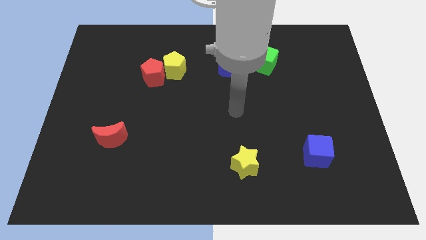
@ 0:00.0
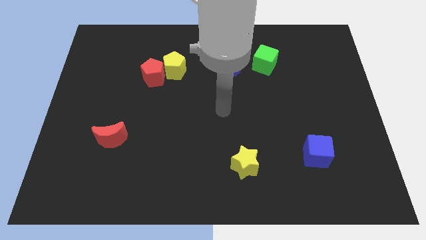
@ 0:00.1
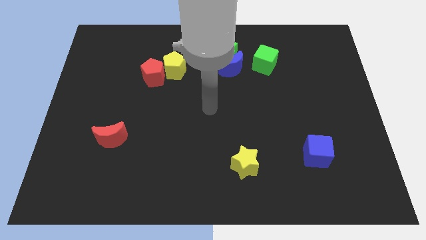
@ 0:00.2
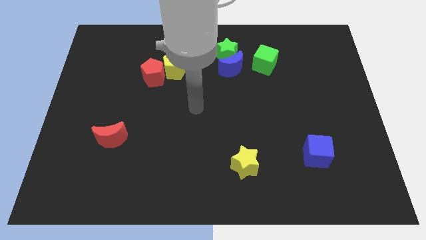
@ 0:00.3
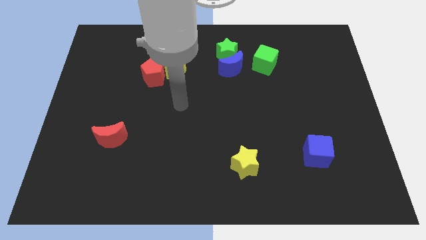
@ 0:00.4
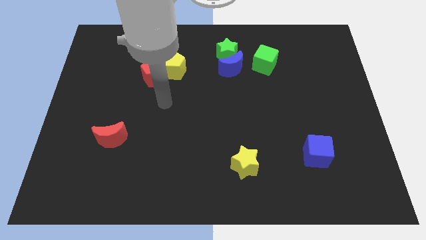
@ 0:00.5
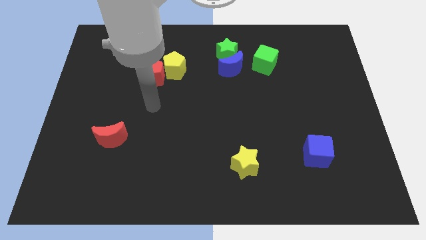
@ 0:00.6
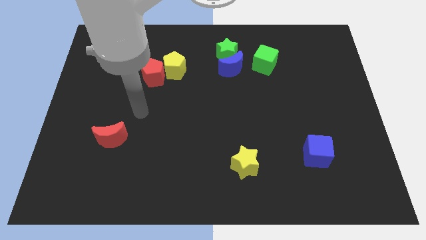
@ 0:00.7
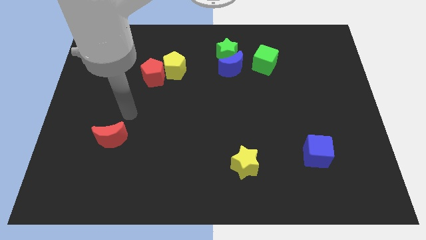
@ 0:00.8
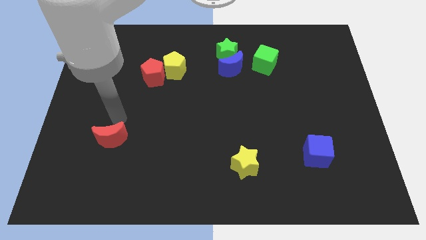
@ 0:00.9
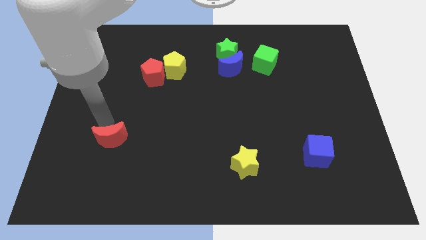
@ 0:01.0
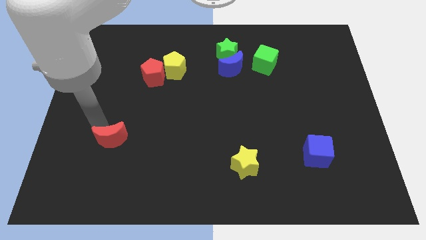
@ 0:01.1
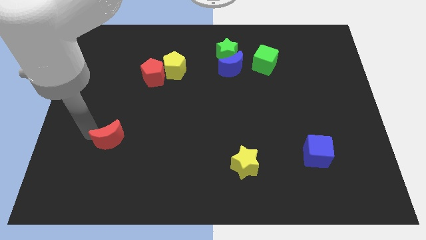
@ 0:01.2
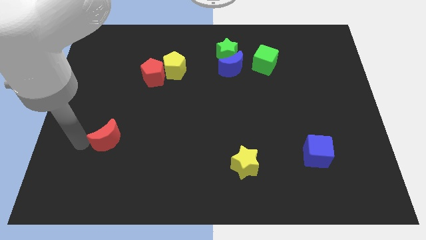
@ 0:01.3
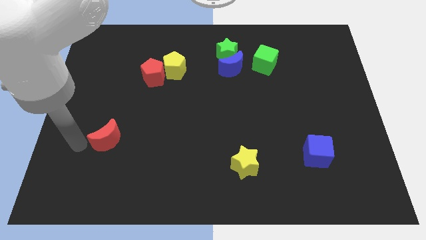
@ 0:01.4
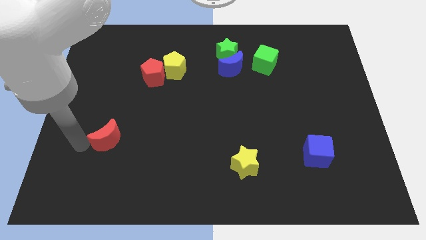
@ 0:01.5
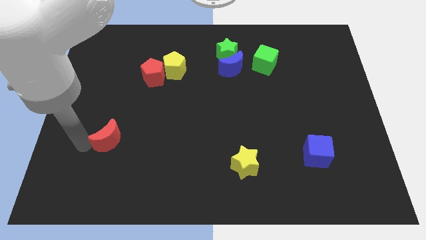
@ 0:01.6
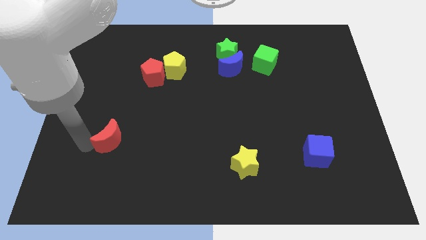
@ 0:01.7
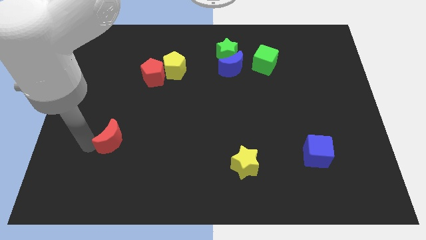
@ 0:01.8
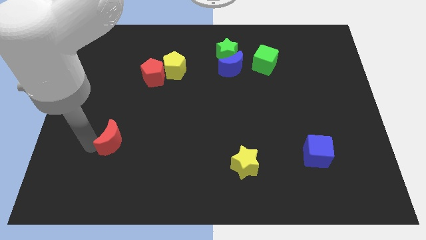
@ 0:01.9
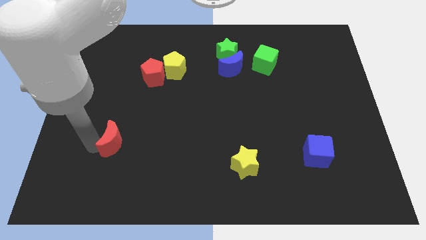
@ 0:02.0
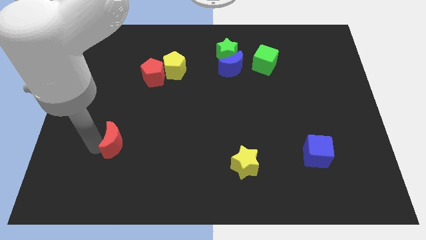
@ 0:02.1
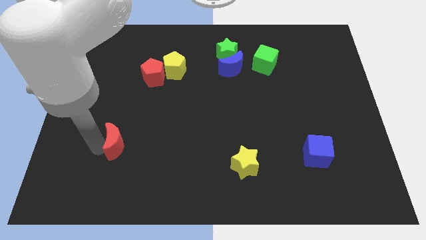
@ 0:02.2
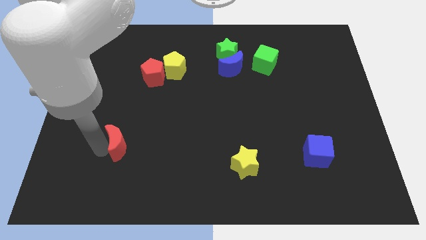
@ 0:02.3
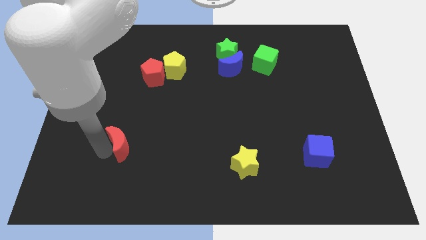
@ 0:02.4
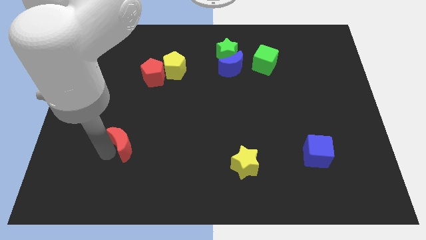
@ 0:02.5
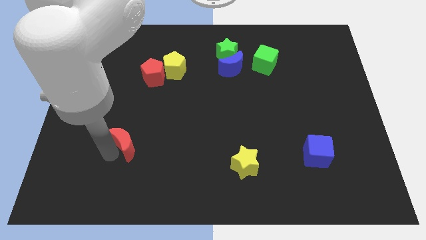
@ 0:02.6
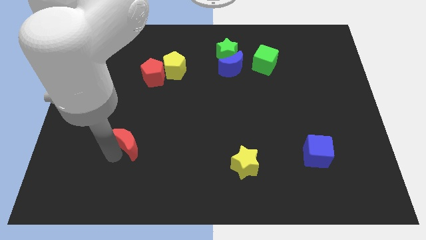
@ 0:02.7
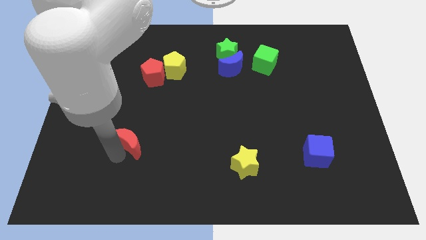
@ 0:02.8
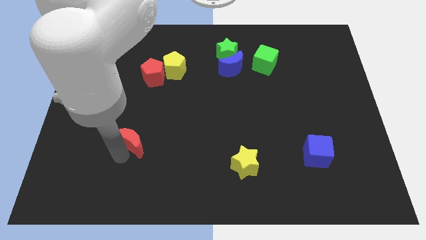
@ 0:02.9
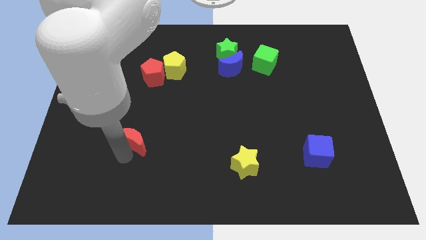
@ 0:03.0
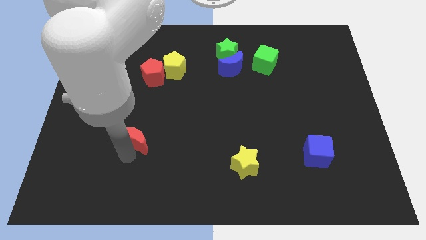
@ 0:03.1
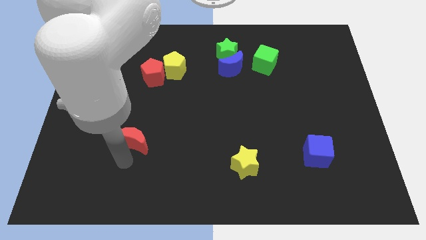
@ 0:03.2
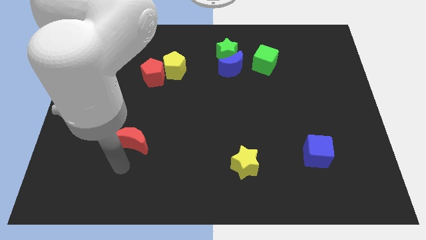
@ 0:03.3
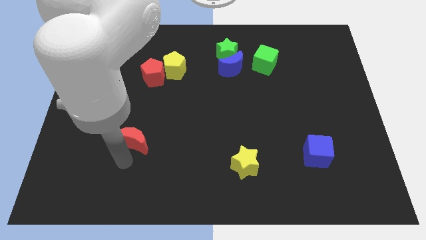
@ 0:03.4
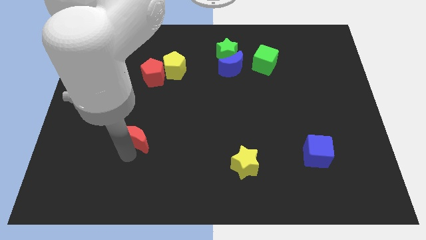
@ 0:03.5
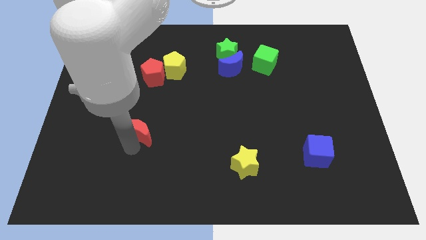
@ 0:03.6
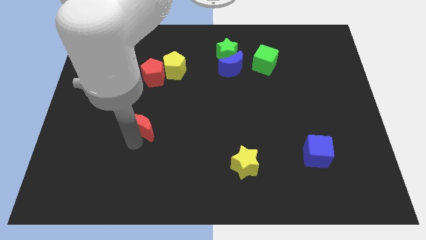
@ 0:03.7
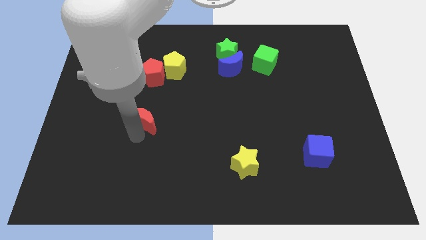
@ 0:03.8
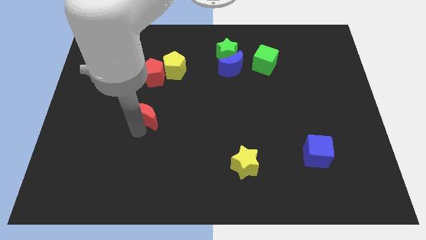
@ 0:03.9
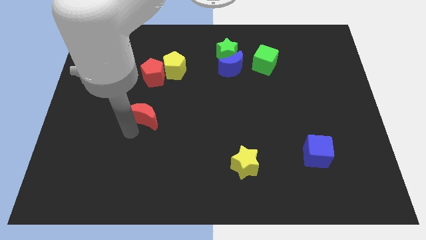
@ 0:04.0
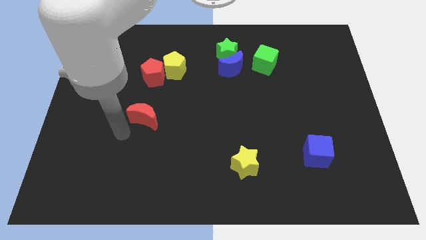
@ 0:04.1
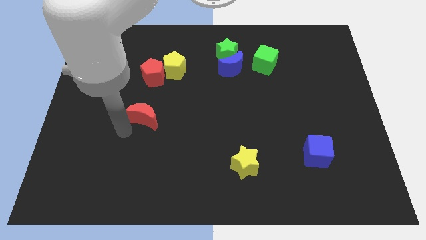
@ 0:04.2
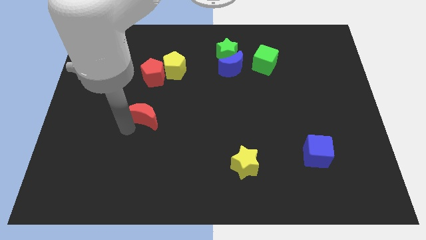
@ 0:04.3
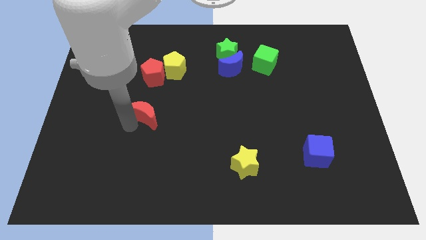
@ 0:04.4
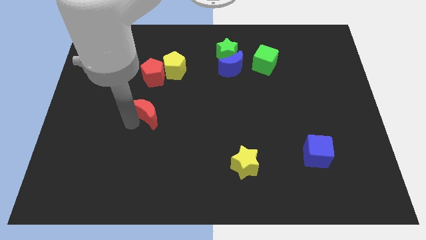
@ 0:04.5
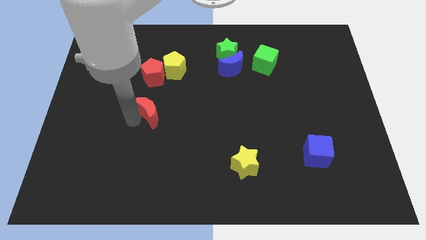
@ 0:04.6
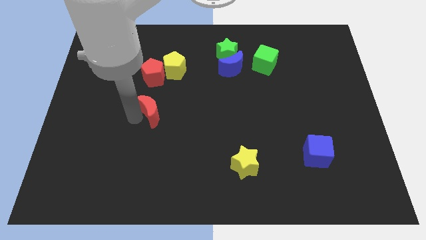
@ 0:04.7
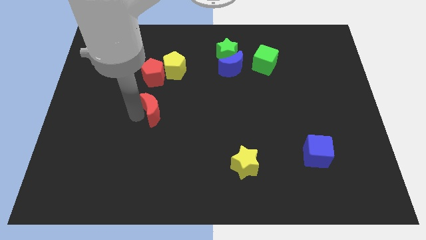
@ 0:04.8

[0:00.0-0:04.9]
push the red moon to the bottom of the yellow pentagon

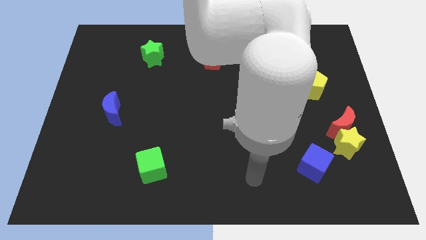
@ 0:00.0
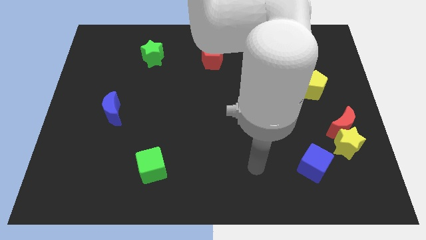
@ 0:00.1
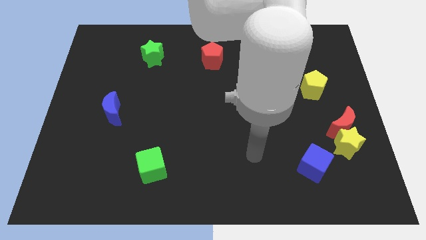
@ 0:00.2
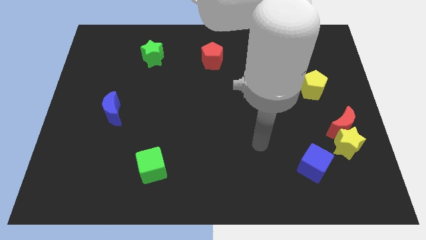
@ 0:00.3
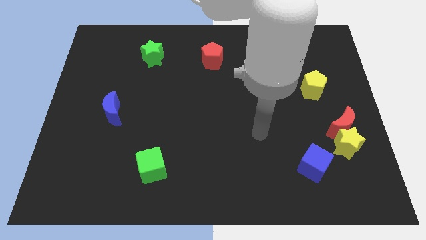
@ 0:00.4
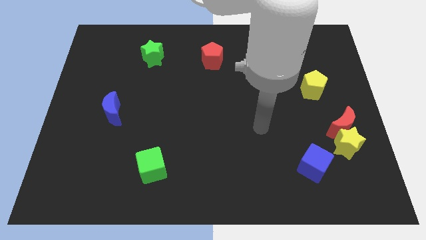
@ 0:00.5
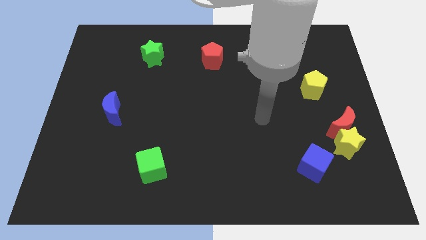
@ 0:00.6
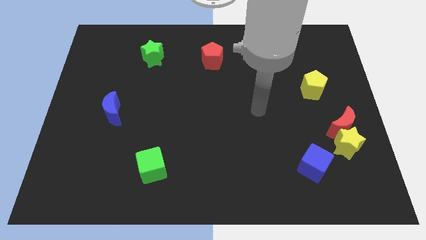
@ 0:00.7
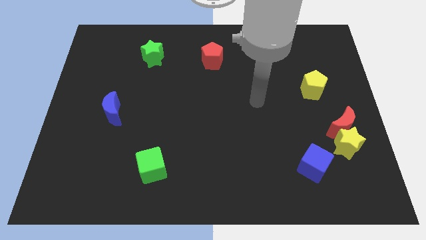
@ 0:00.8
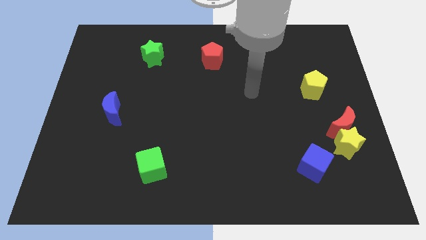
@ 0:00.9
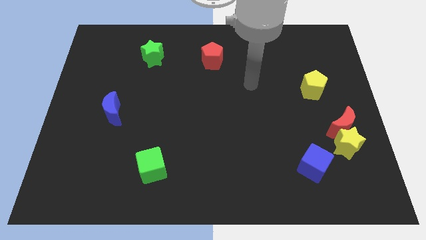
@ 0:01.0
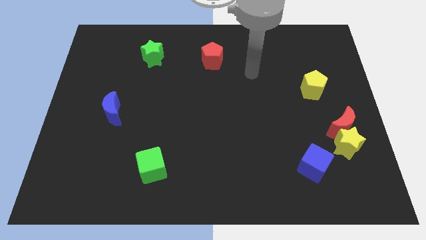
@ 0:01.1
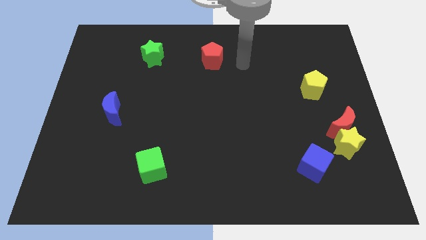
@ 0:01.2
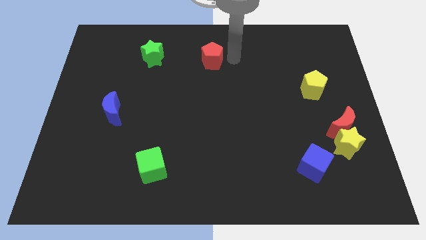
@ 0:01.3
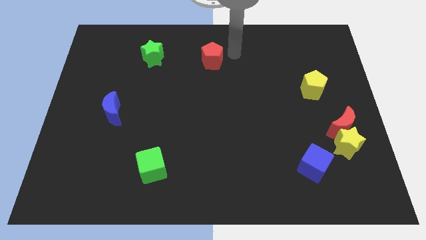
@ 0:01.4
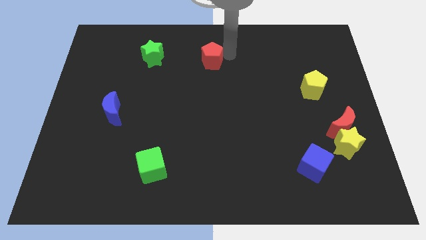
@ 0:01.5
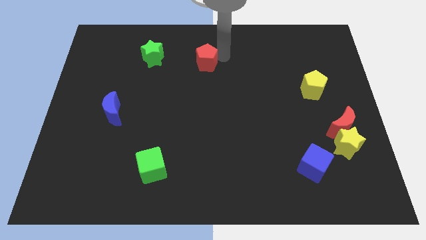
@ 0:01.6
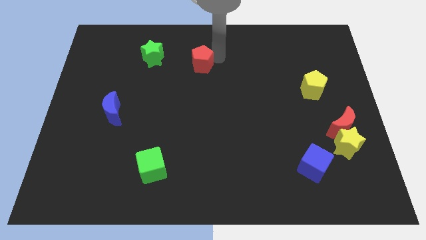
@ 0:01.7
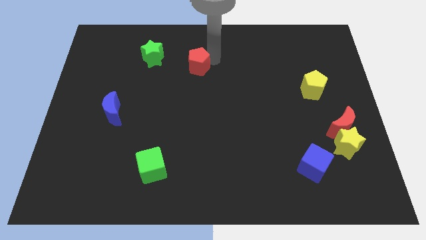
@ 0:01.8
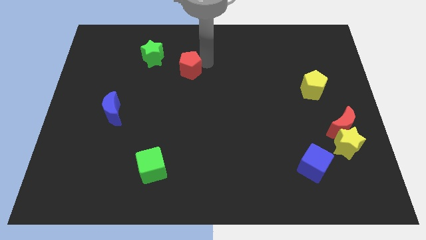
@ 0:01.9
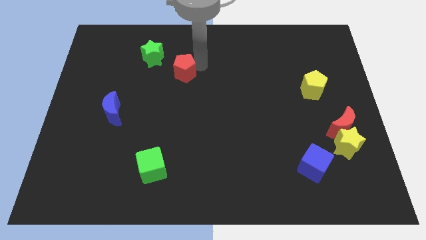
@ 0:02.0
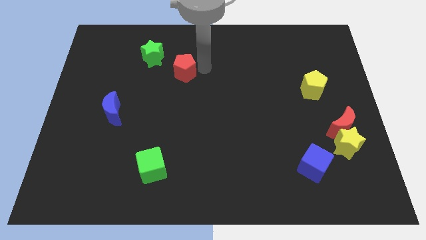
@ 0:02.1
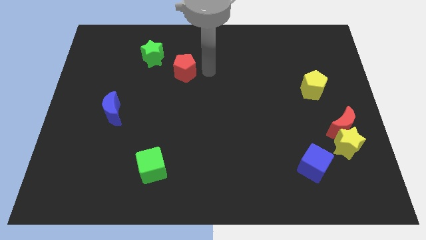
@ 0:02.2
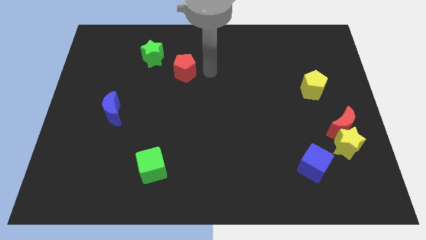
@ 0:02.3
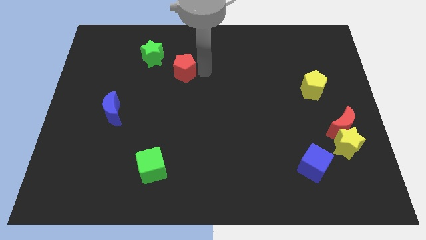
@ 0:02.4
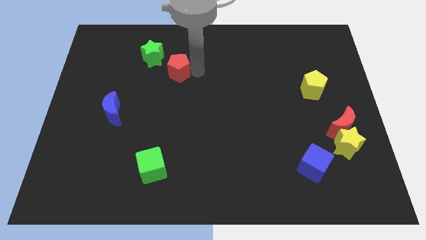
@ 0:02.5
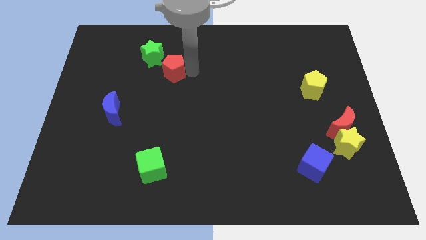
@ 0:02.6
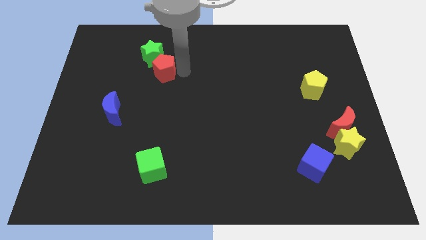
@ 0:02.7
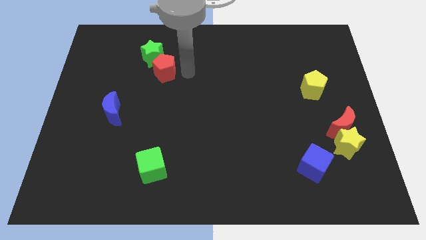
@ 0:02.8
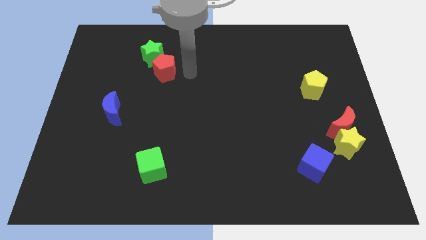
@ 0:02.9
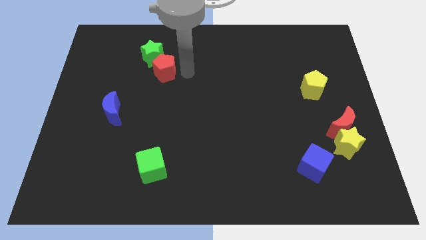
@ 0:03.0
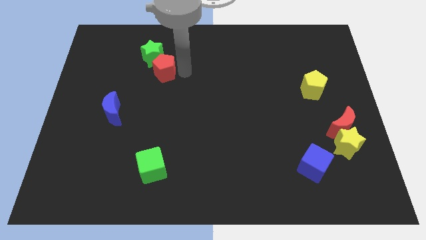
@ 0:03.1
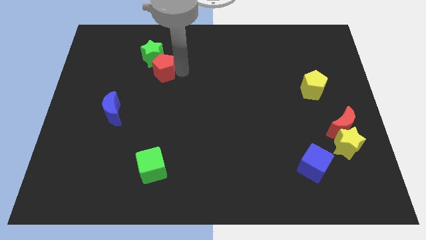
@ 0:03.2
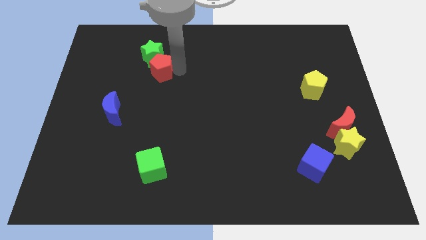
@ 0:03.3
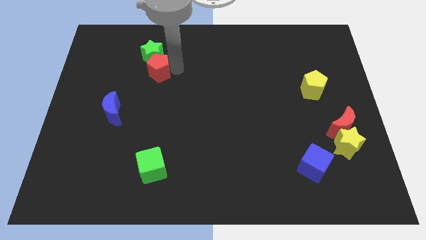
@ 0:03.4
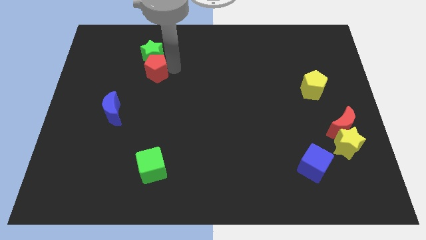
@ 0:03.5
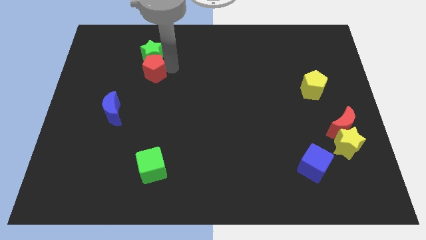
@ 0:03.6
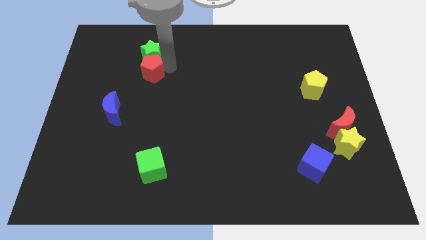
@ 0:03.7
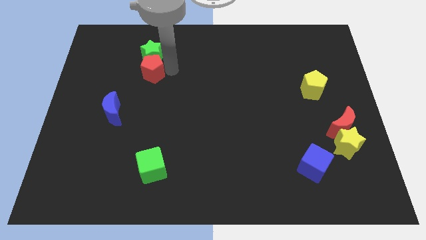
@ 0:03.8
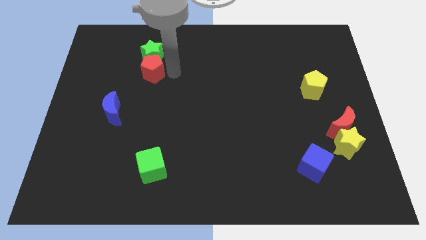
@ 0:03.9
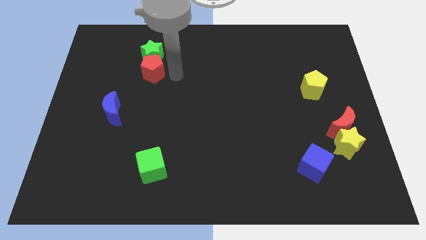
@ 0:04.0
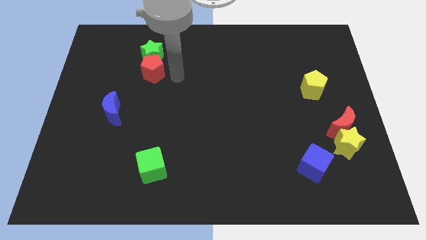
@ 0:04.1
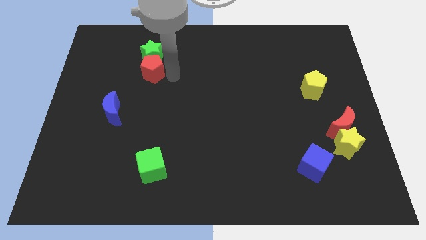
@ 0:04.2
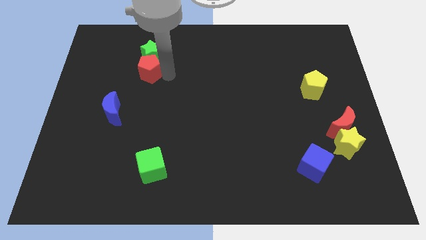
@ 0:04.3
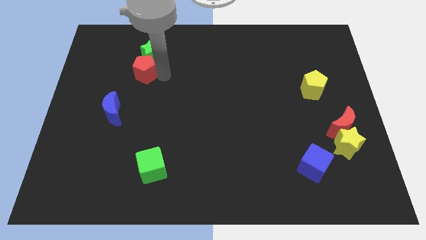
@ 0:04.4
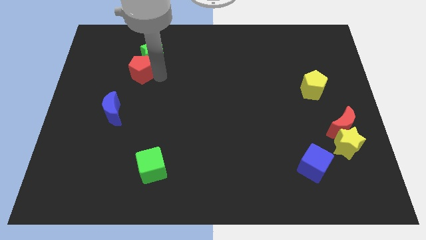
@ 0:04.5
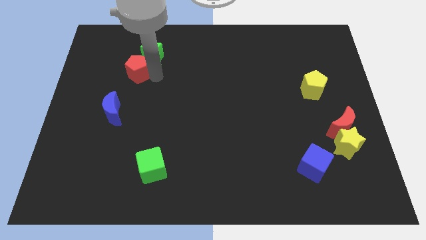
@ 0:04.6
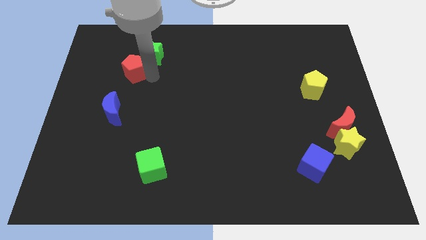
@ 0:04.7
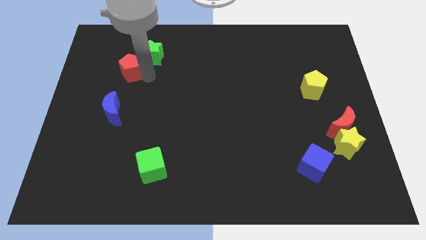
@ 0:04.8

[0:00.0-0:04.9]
push the red pentagon just left of the green star
